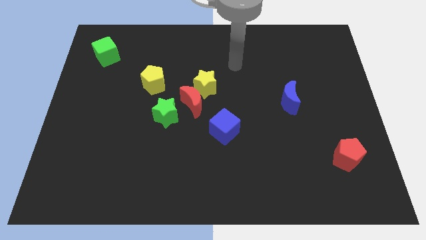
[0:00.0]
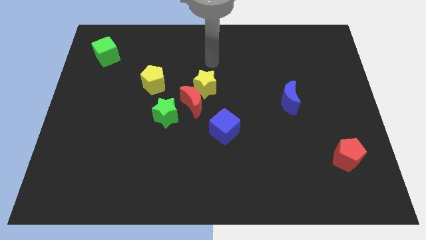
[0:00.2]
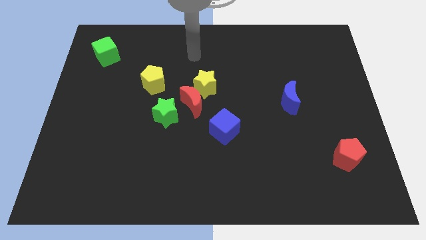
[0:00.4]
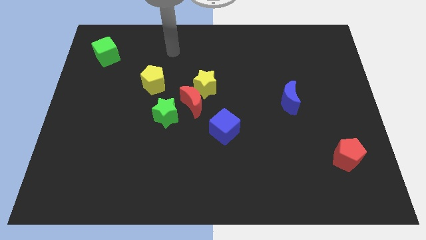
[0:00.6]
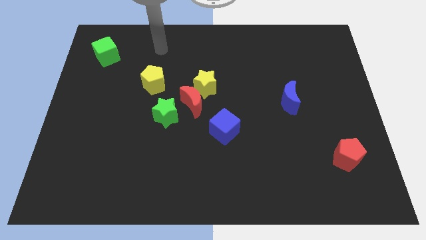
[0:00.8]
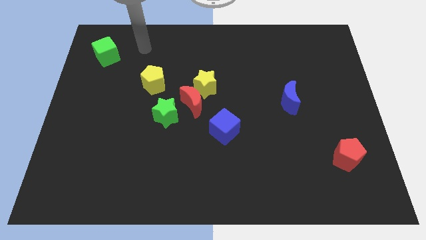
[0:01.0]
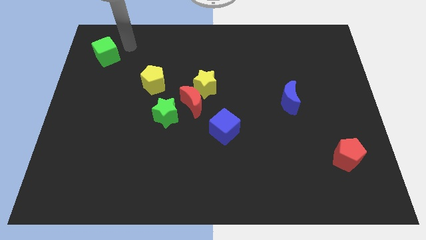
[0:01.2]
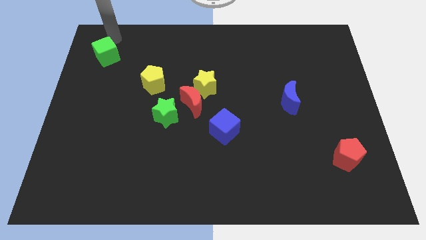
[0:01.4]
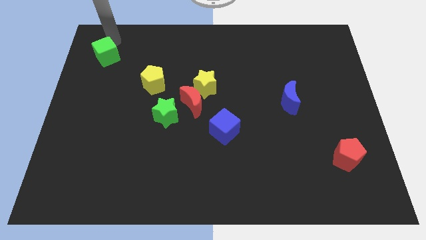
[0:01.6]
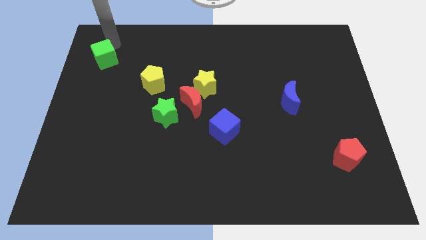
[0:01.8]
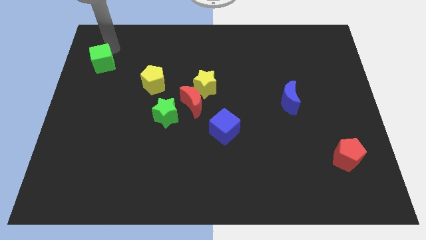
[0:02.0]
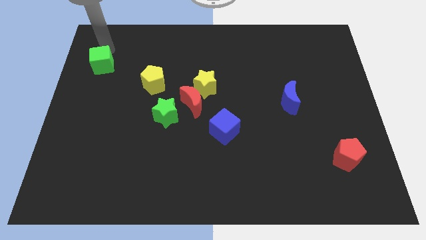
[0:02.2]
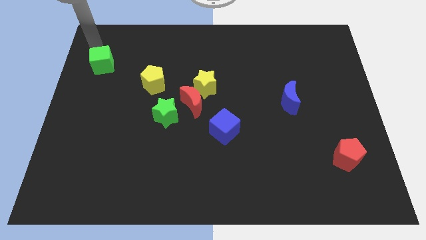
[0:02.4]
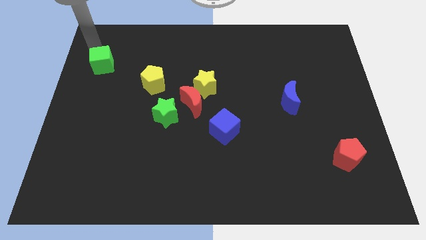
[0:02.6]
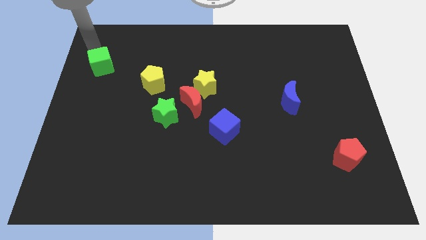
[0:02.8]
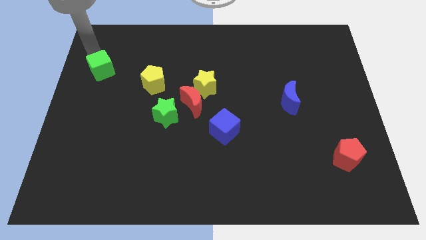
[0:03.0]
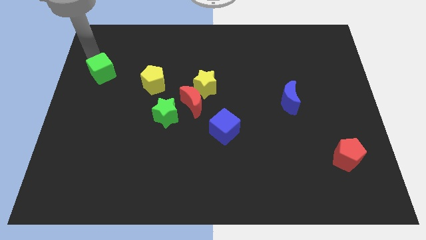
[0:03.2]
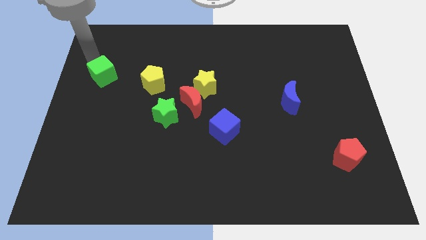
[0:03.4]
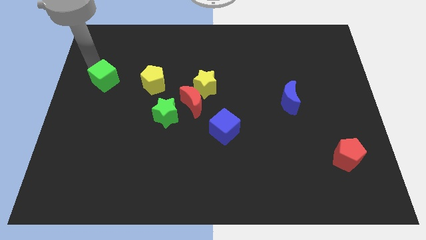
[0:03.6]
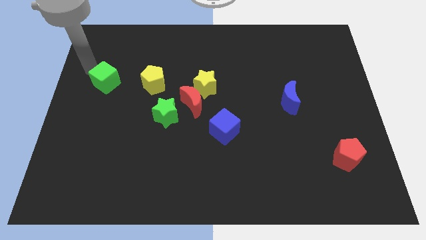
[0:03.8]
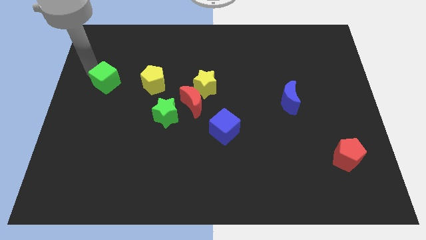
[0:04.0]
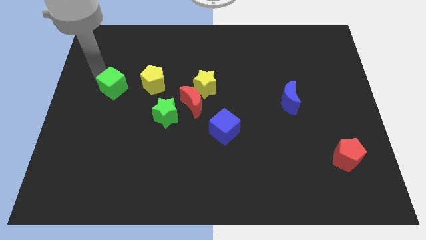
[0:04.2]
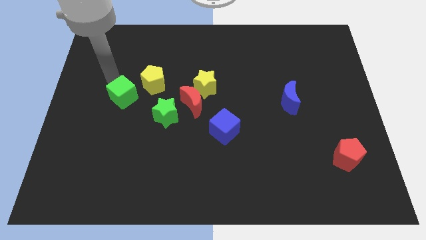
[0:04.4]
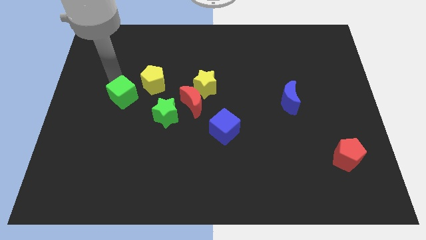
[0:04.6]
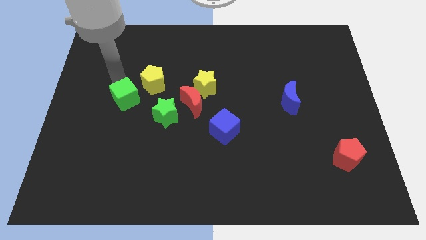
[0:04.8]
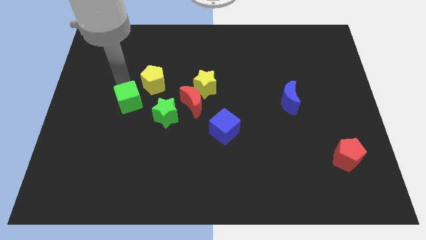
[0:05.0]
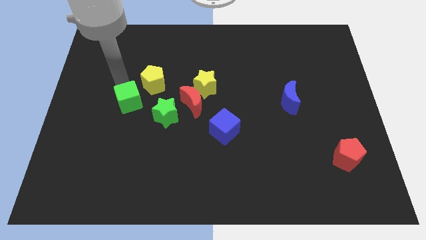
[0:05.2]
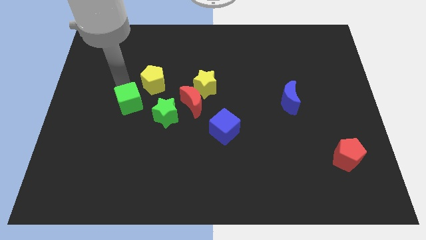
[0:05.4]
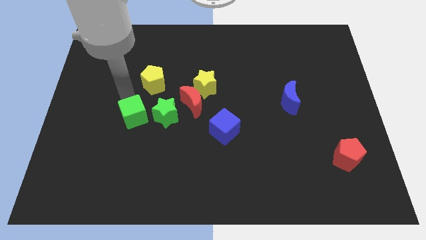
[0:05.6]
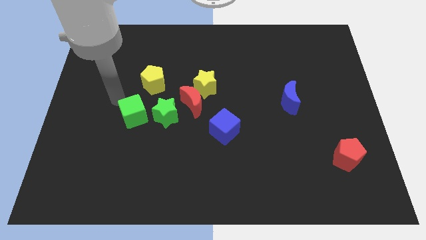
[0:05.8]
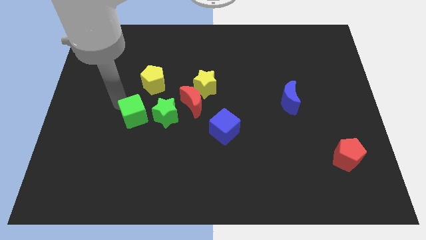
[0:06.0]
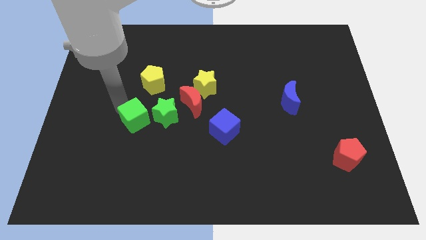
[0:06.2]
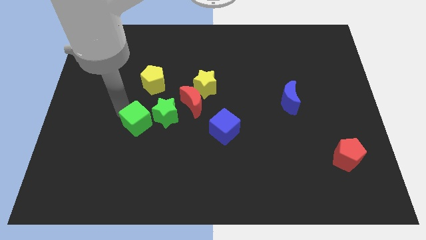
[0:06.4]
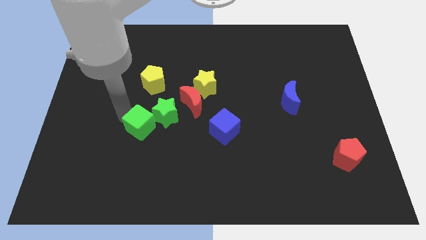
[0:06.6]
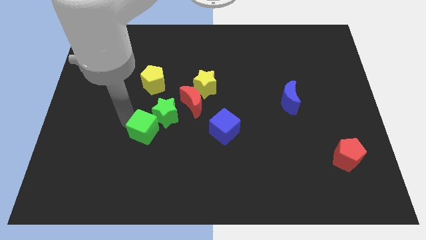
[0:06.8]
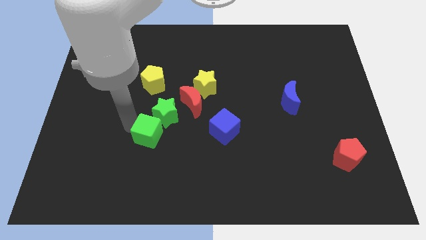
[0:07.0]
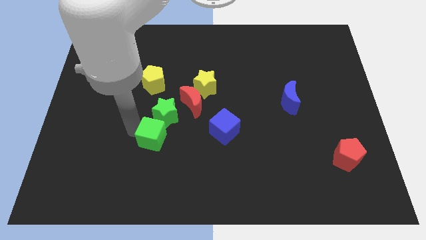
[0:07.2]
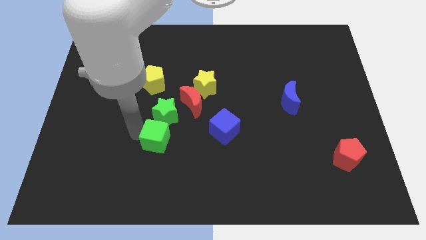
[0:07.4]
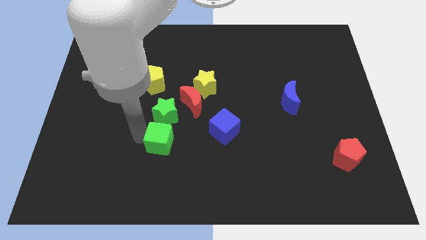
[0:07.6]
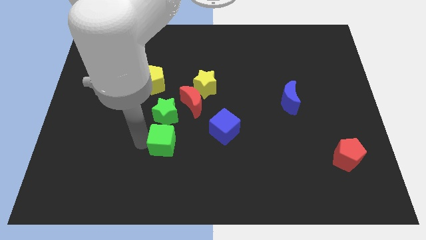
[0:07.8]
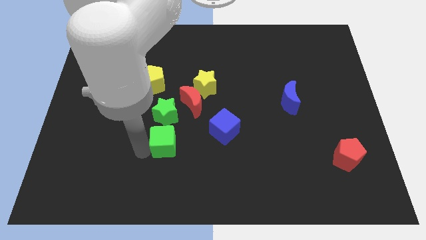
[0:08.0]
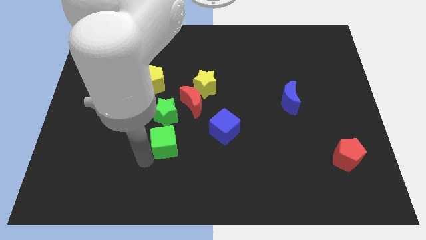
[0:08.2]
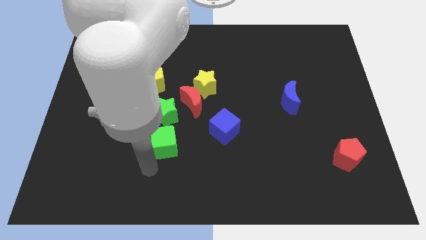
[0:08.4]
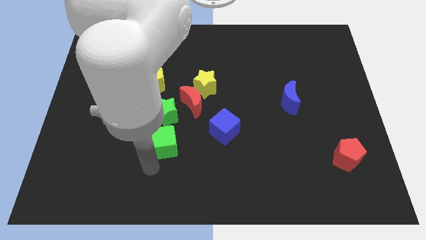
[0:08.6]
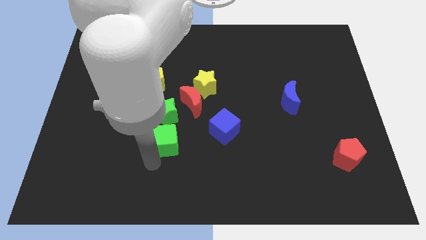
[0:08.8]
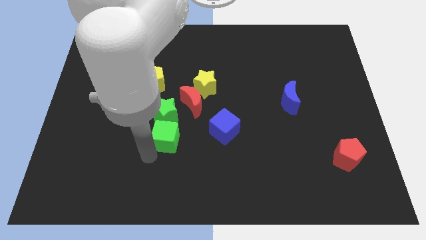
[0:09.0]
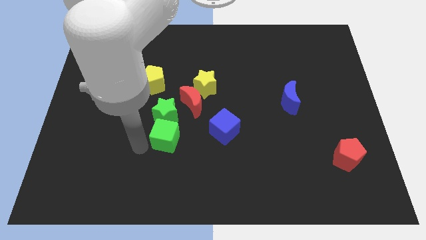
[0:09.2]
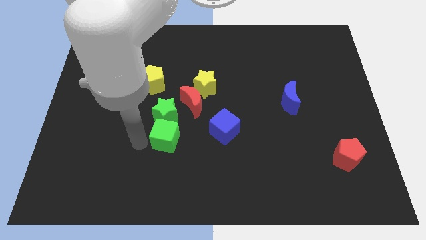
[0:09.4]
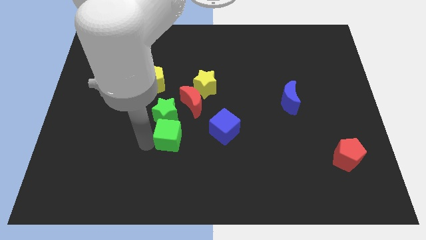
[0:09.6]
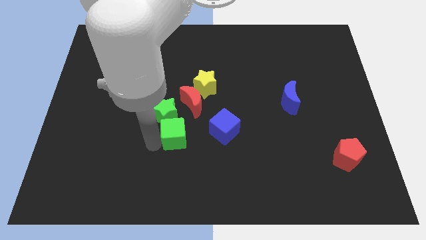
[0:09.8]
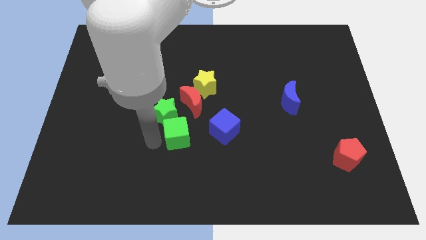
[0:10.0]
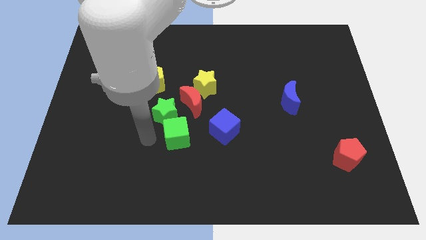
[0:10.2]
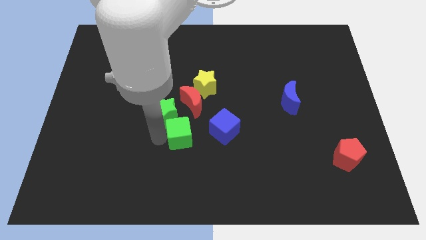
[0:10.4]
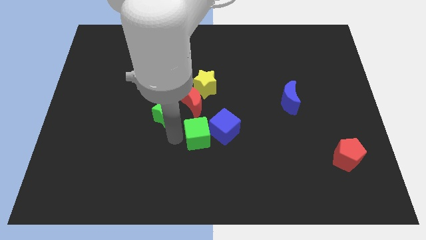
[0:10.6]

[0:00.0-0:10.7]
move the green cube to the blue cube
